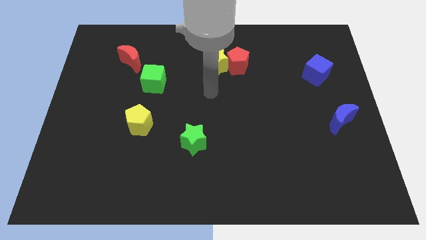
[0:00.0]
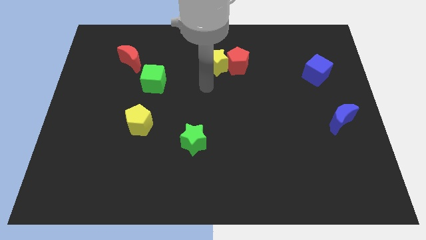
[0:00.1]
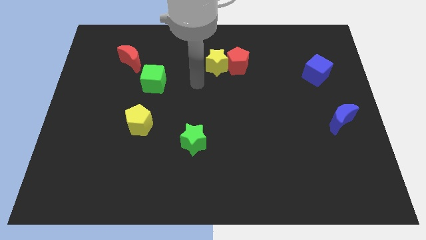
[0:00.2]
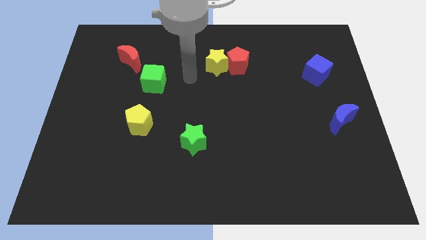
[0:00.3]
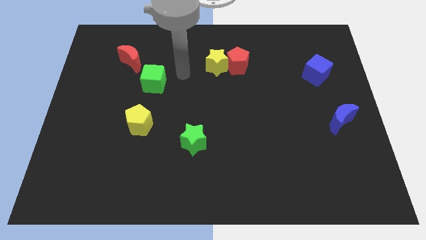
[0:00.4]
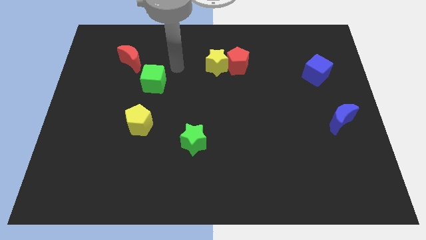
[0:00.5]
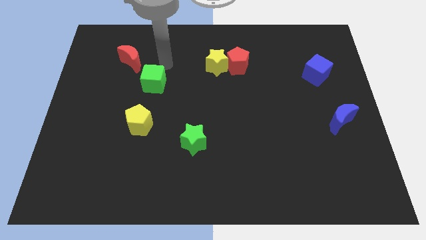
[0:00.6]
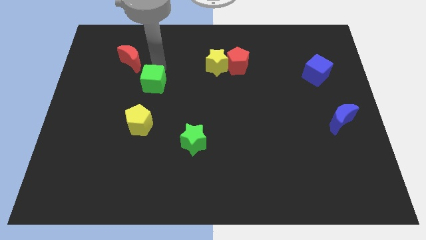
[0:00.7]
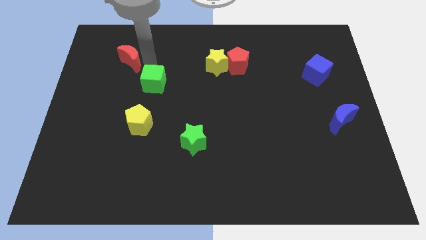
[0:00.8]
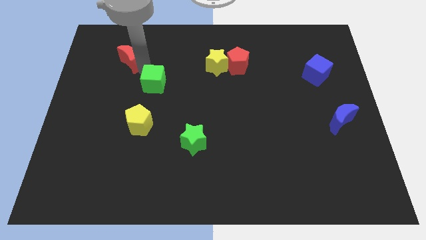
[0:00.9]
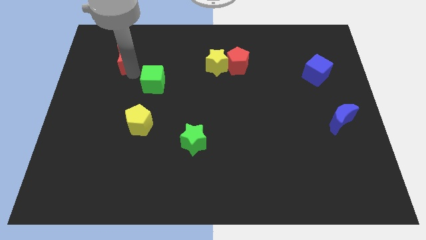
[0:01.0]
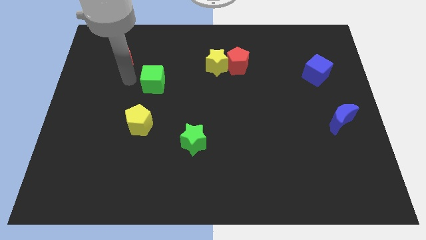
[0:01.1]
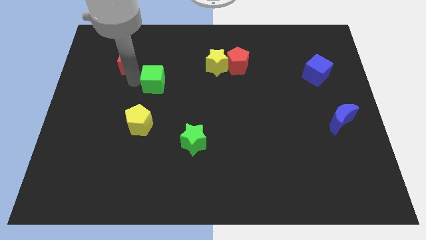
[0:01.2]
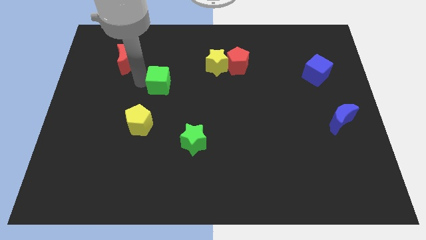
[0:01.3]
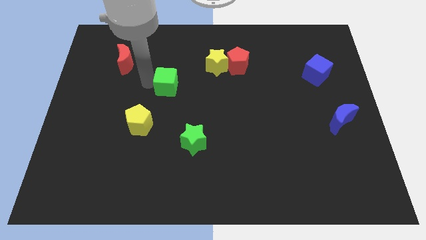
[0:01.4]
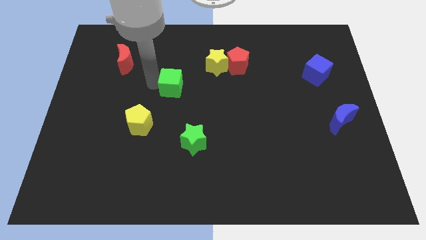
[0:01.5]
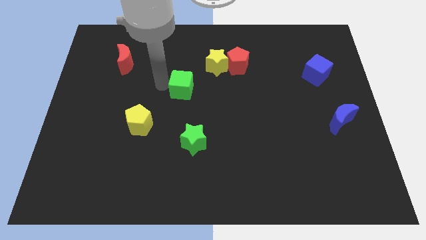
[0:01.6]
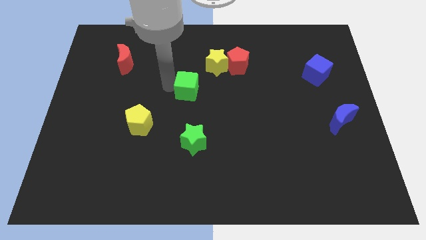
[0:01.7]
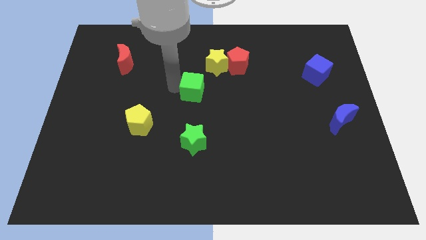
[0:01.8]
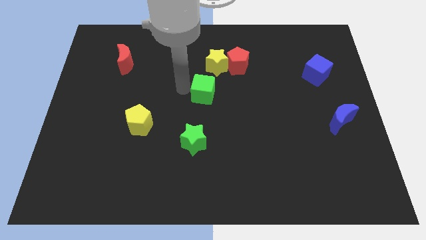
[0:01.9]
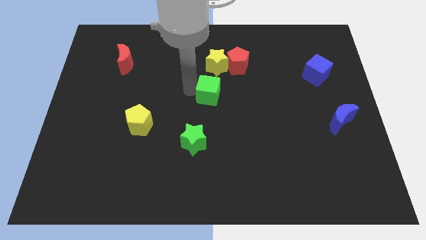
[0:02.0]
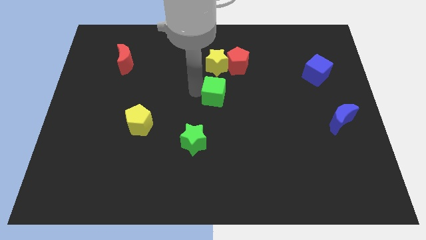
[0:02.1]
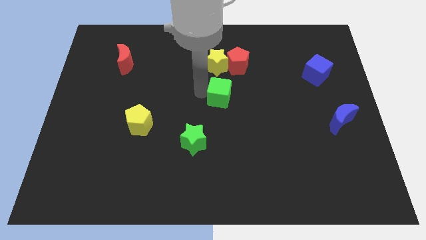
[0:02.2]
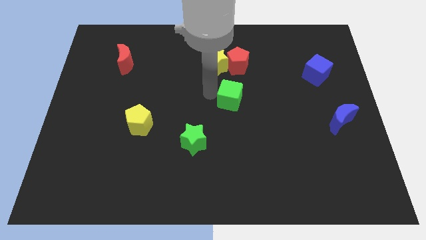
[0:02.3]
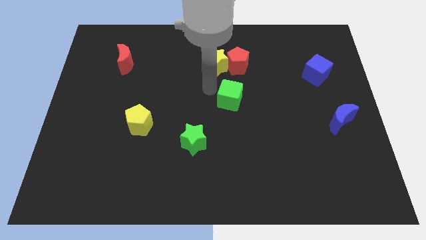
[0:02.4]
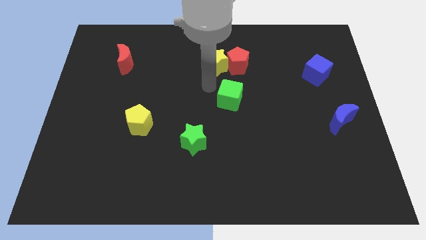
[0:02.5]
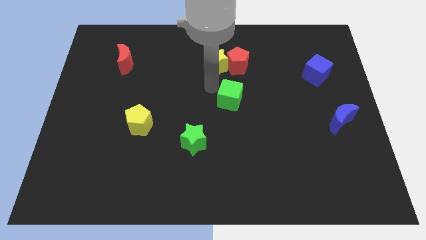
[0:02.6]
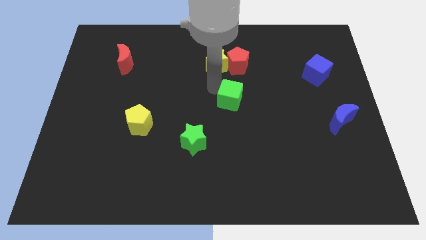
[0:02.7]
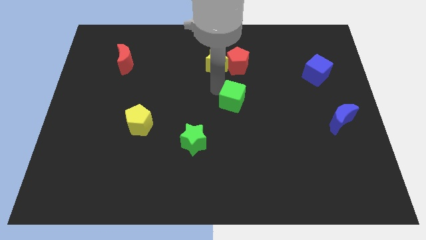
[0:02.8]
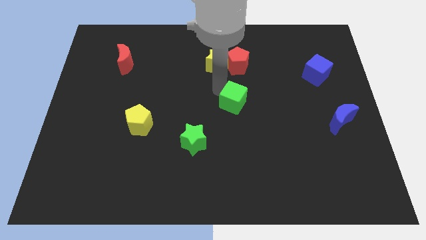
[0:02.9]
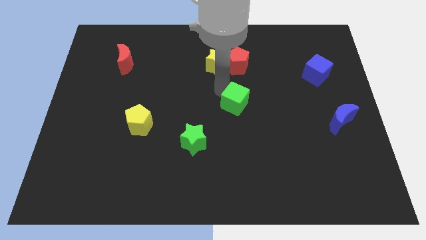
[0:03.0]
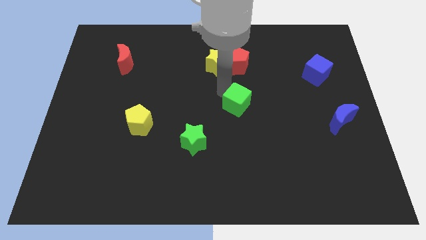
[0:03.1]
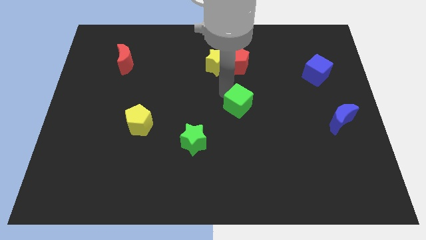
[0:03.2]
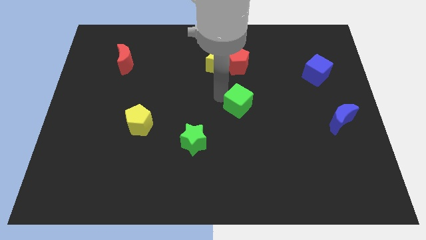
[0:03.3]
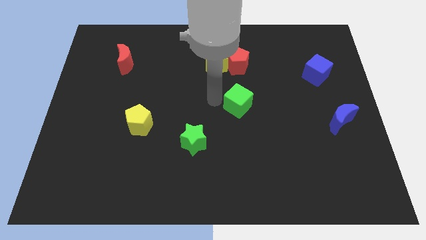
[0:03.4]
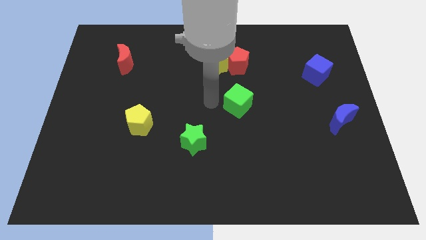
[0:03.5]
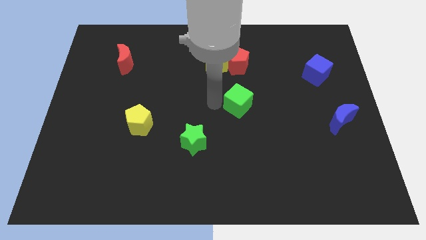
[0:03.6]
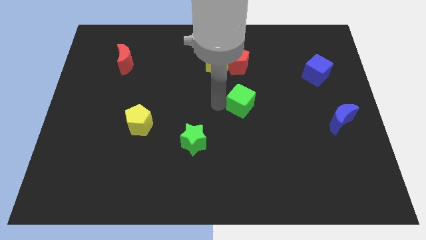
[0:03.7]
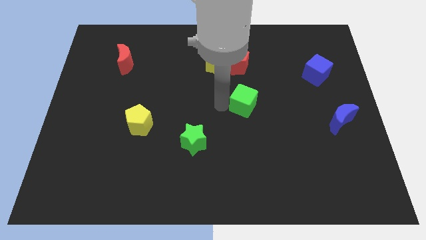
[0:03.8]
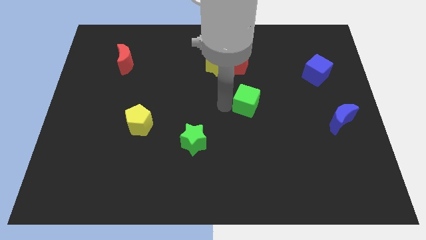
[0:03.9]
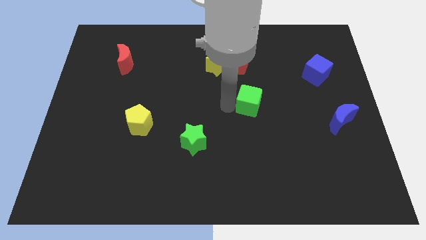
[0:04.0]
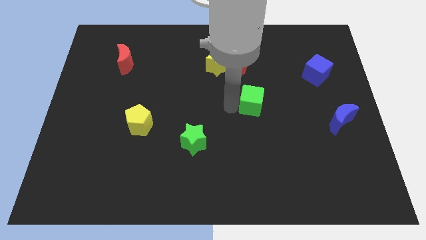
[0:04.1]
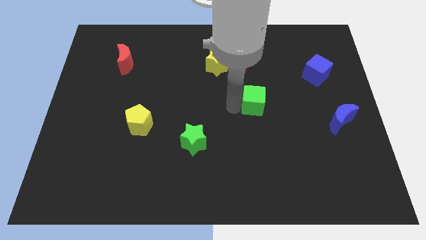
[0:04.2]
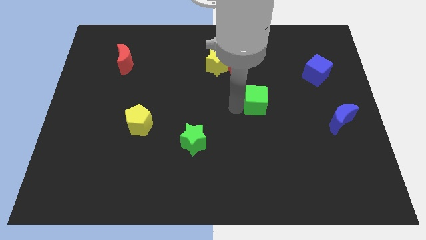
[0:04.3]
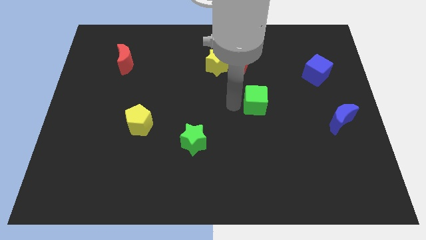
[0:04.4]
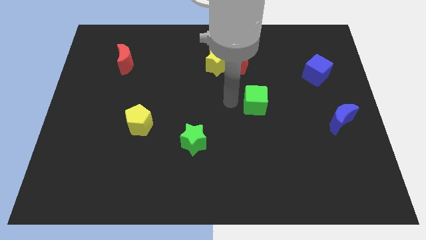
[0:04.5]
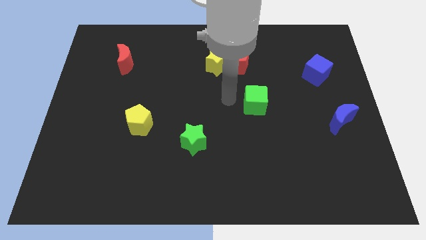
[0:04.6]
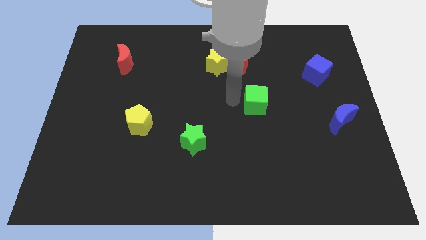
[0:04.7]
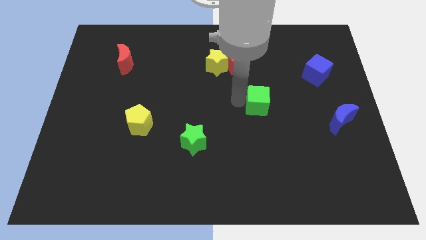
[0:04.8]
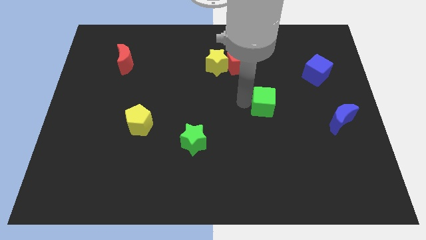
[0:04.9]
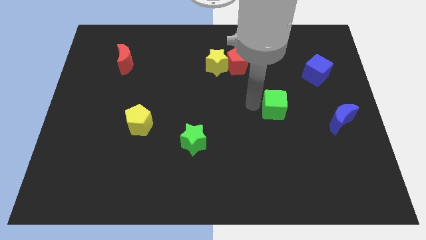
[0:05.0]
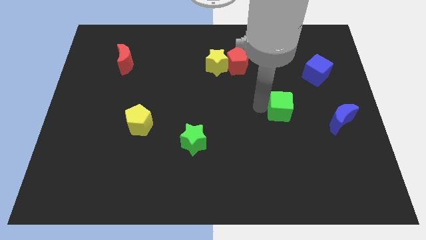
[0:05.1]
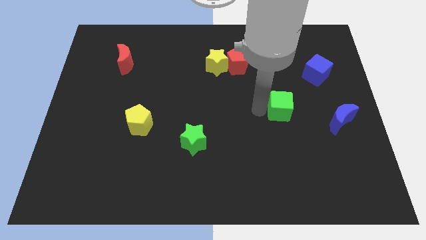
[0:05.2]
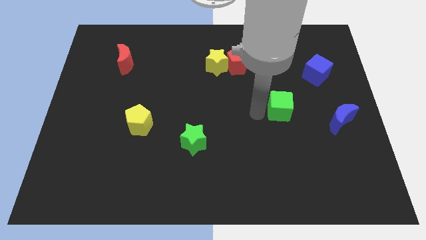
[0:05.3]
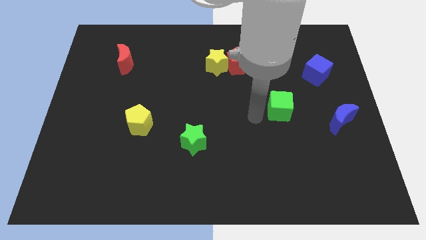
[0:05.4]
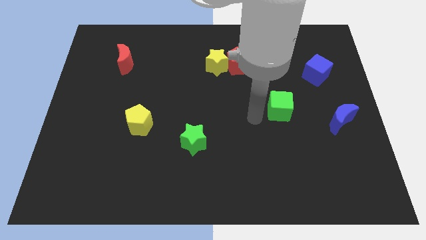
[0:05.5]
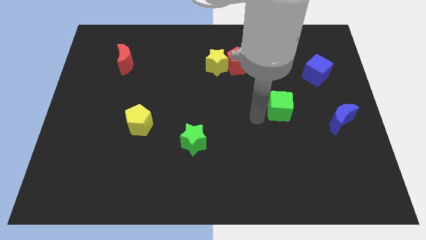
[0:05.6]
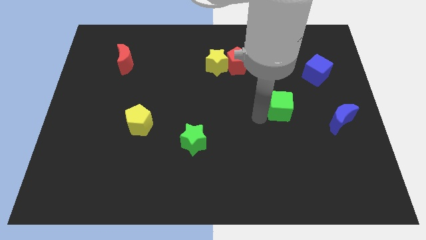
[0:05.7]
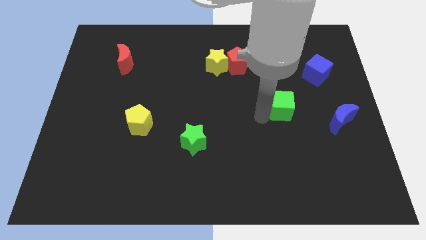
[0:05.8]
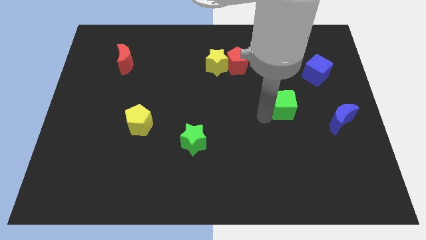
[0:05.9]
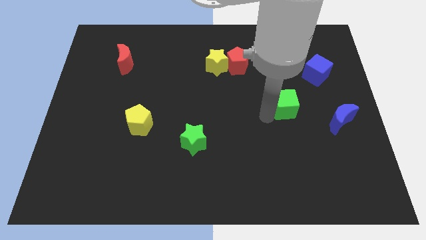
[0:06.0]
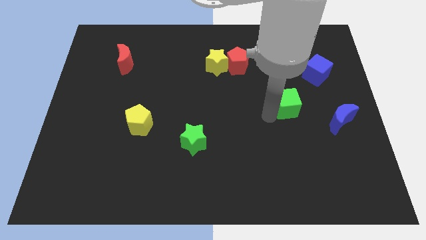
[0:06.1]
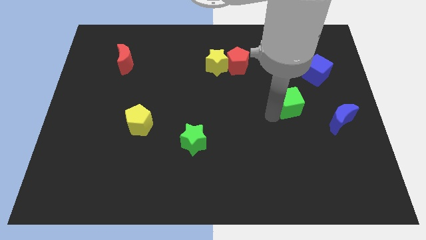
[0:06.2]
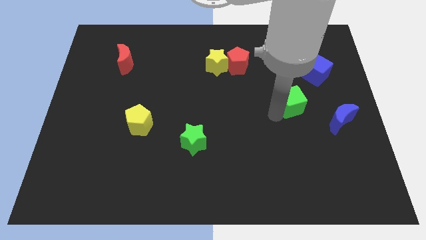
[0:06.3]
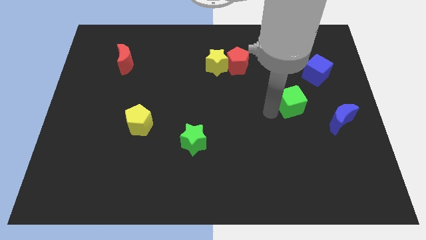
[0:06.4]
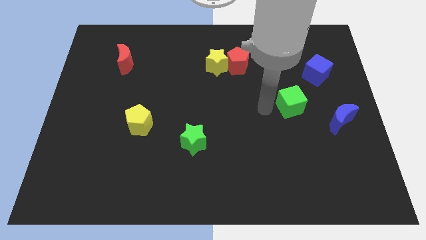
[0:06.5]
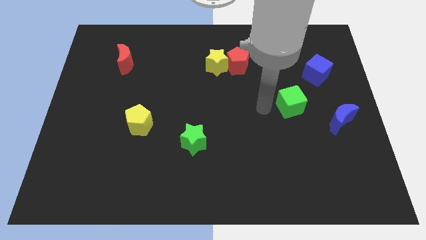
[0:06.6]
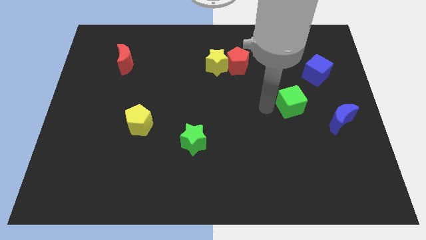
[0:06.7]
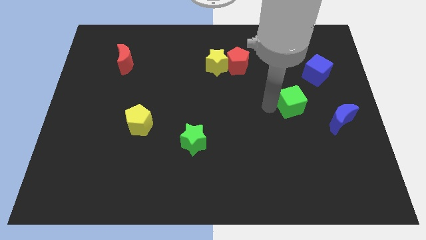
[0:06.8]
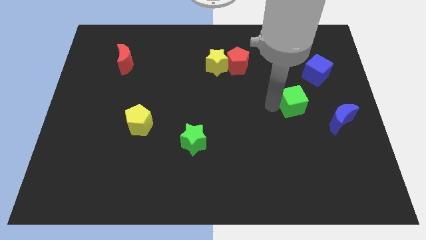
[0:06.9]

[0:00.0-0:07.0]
push the green cube to the top left side of the blue moon
